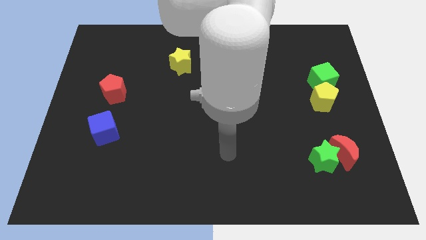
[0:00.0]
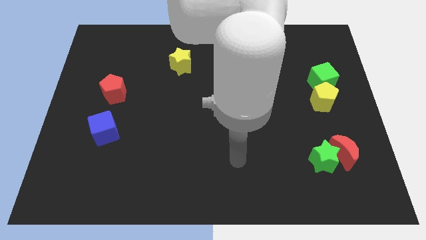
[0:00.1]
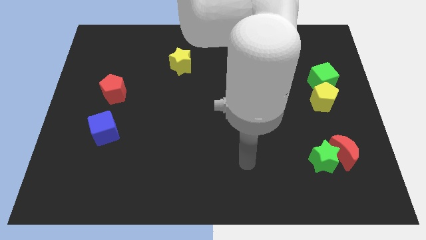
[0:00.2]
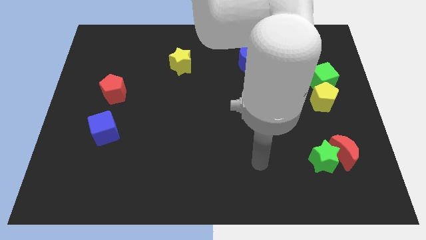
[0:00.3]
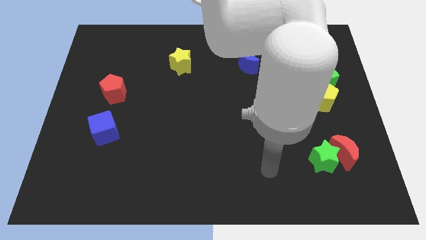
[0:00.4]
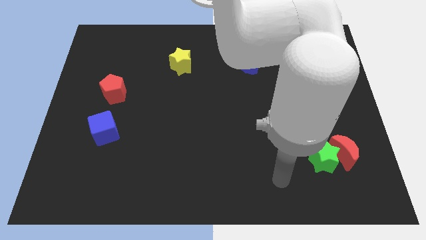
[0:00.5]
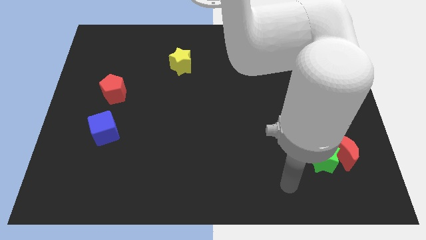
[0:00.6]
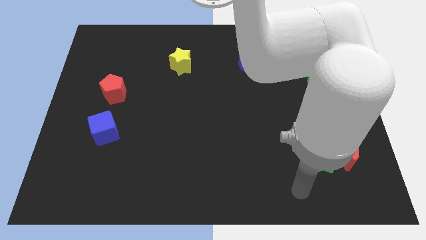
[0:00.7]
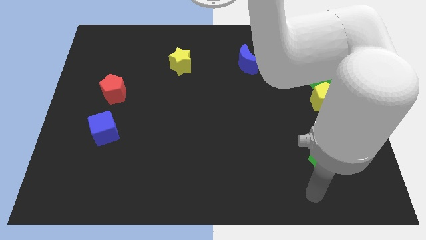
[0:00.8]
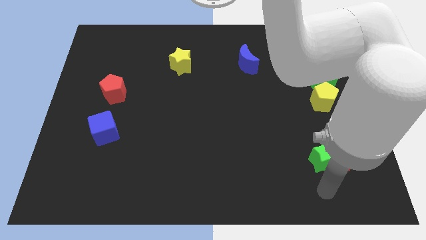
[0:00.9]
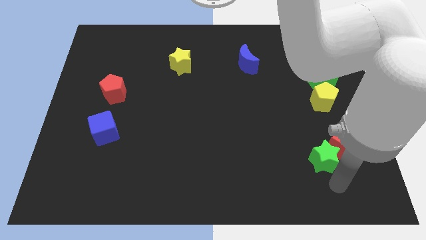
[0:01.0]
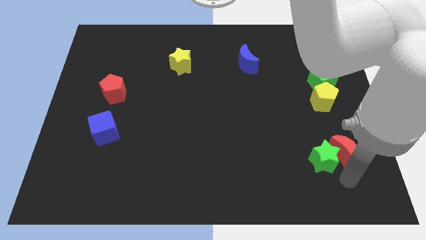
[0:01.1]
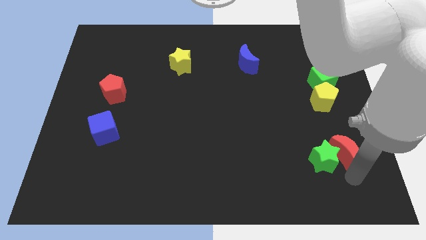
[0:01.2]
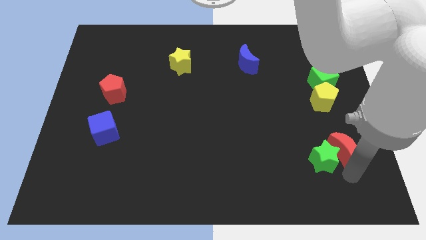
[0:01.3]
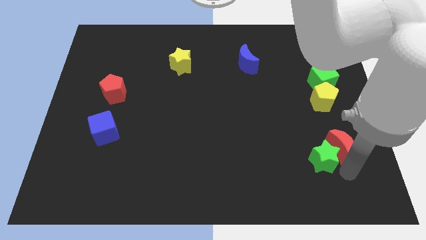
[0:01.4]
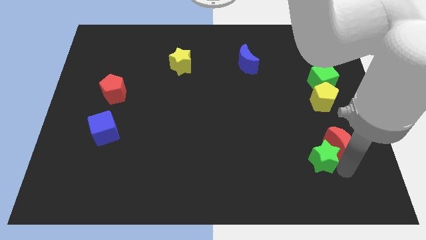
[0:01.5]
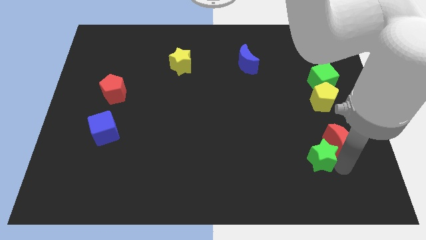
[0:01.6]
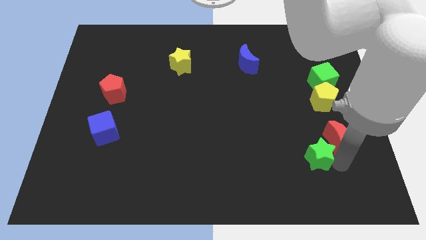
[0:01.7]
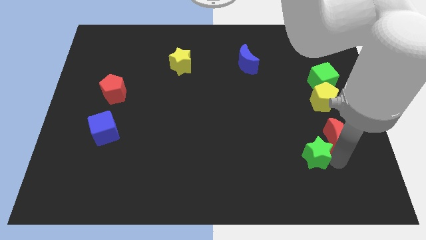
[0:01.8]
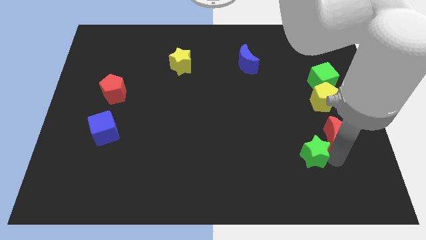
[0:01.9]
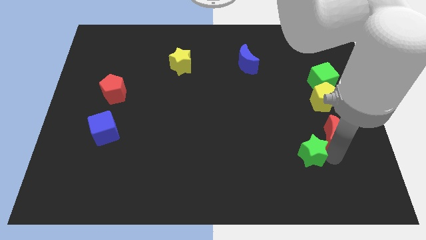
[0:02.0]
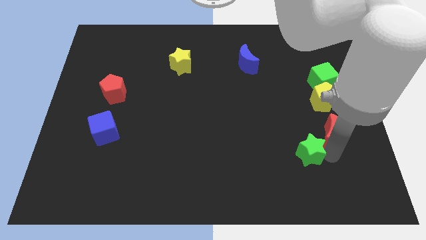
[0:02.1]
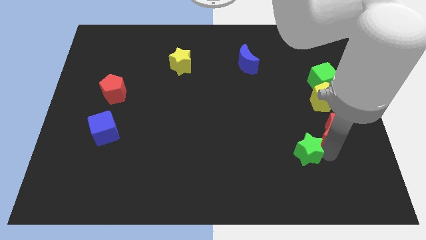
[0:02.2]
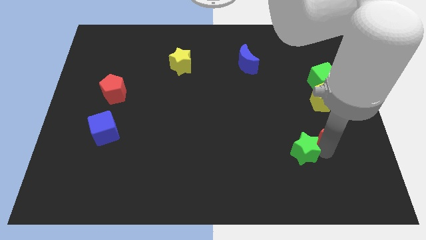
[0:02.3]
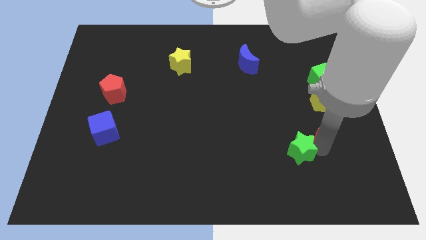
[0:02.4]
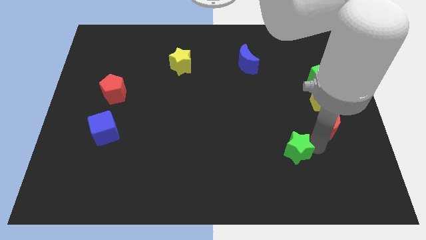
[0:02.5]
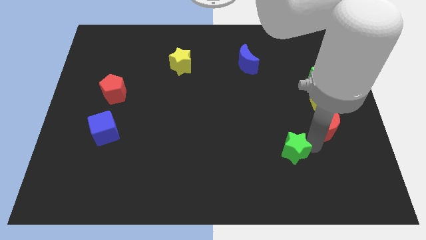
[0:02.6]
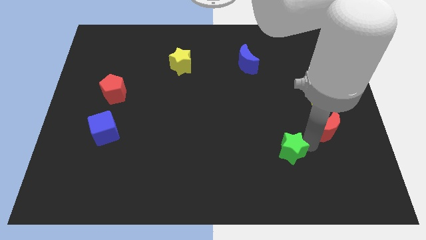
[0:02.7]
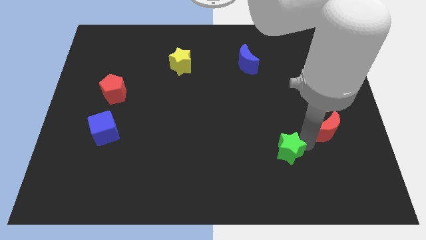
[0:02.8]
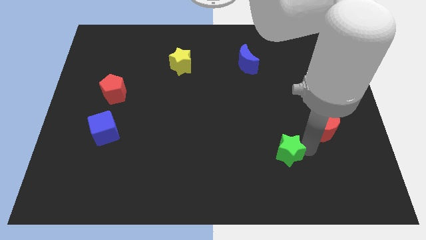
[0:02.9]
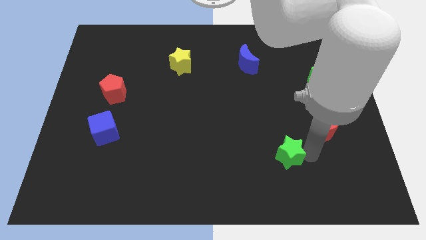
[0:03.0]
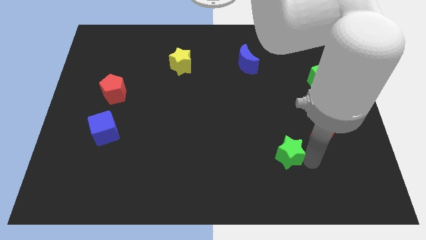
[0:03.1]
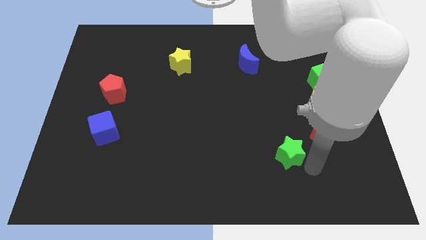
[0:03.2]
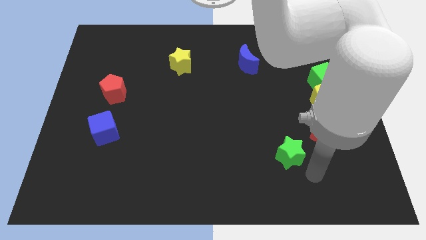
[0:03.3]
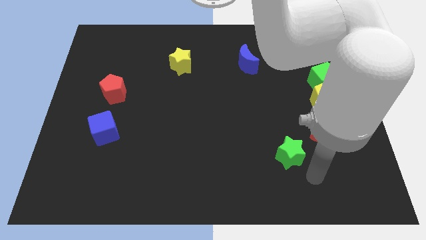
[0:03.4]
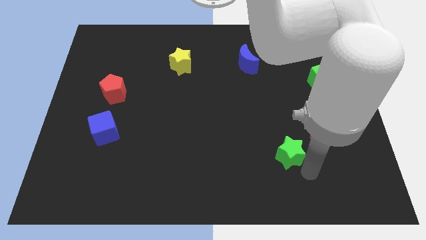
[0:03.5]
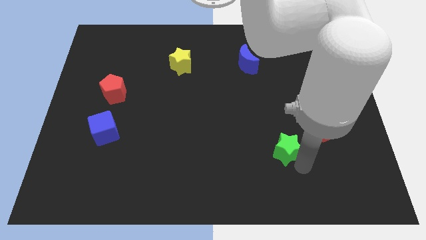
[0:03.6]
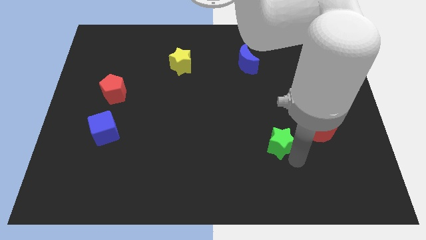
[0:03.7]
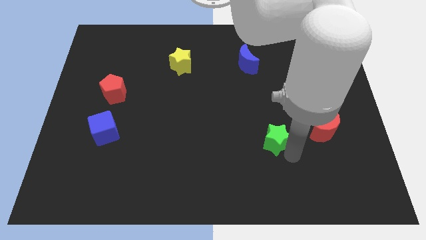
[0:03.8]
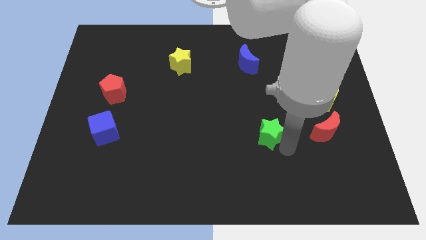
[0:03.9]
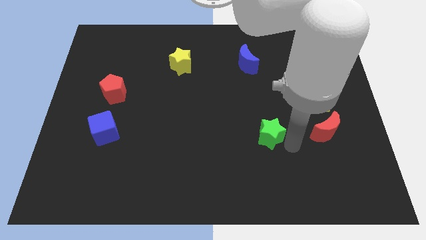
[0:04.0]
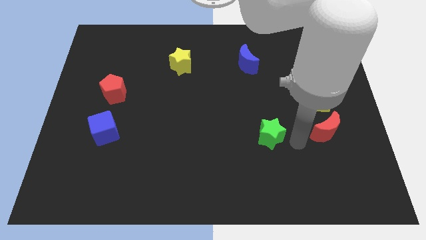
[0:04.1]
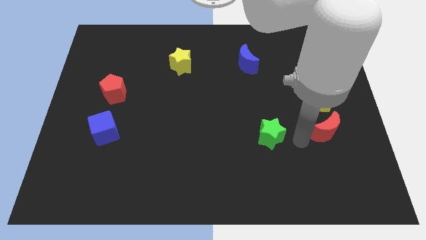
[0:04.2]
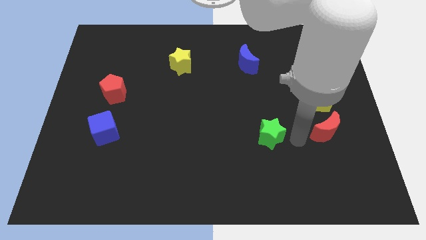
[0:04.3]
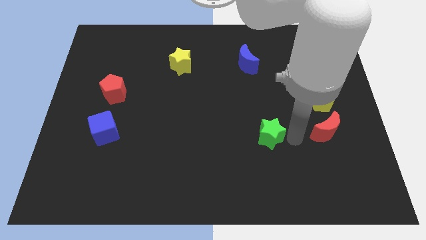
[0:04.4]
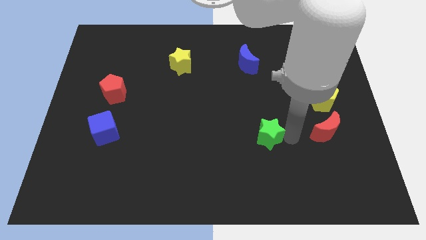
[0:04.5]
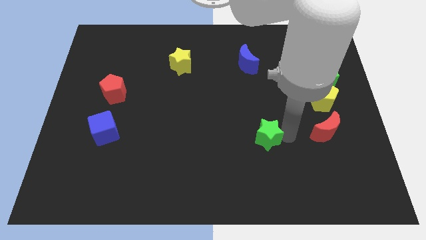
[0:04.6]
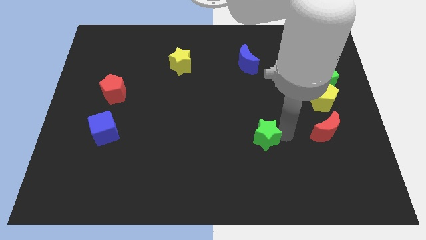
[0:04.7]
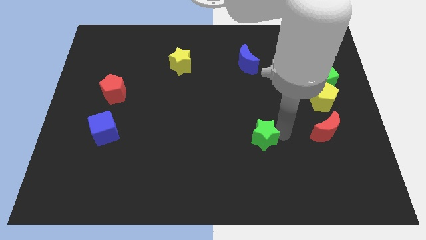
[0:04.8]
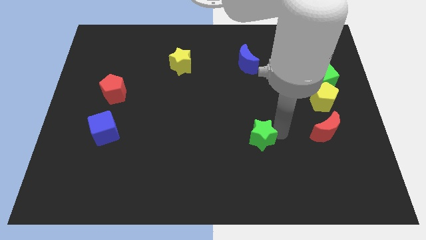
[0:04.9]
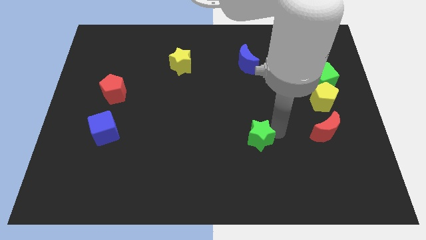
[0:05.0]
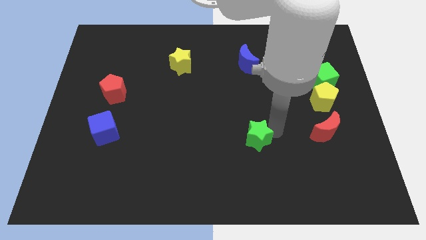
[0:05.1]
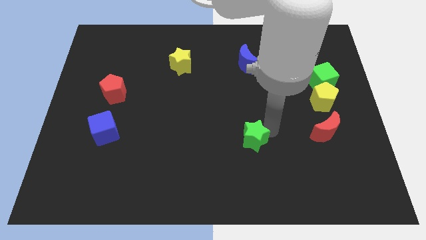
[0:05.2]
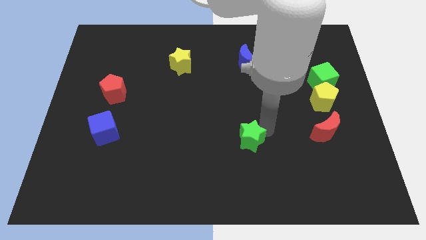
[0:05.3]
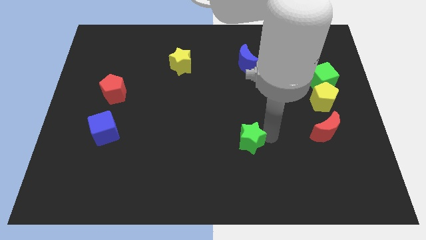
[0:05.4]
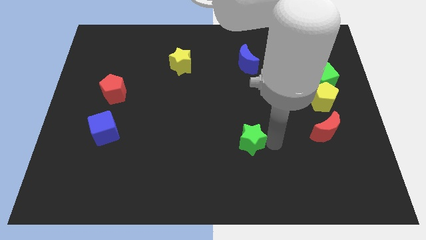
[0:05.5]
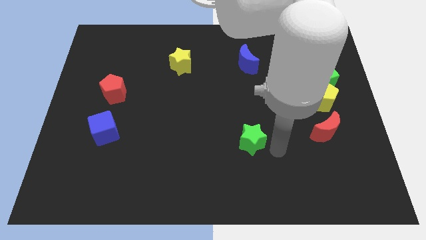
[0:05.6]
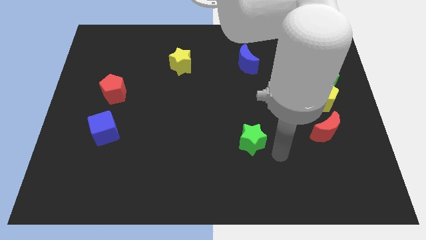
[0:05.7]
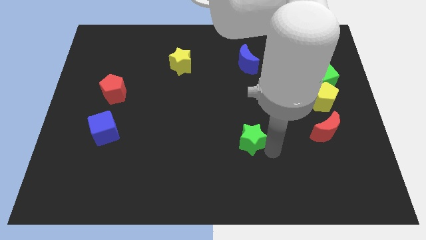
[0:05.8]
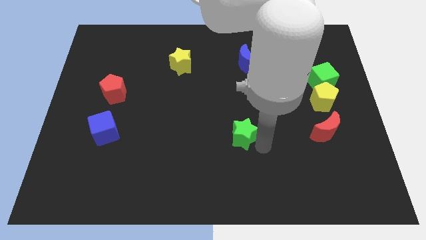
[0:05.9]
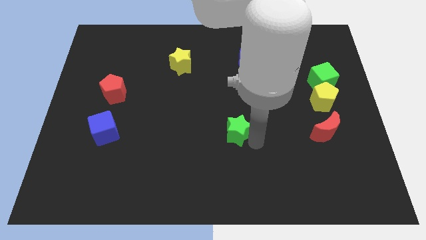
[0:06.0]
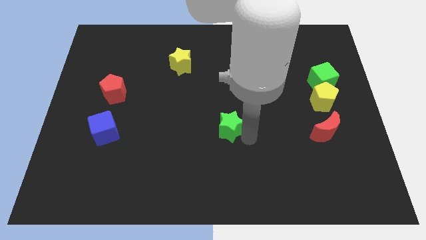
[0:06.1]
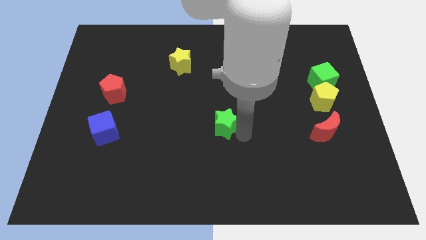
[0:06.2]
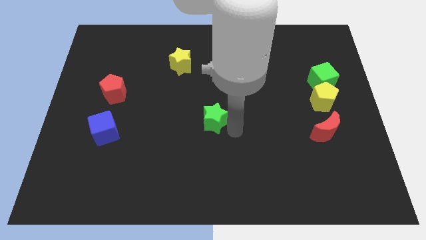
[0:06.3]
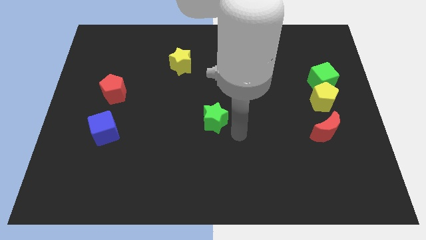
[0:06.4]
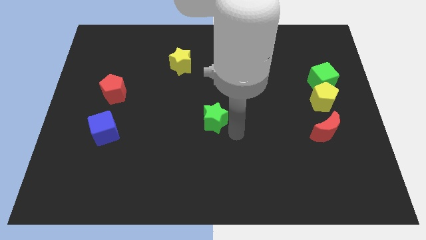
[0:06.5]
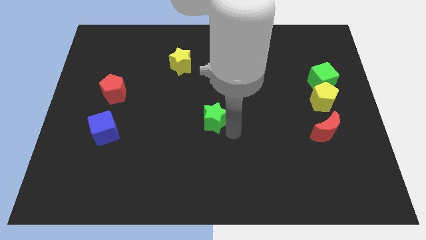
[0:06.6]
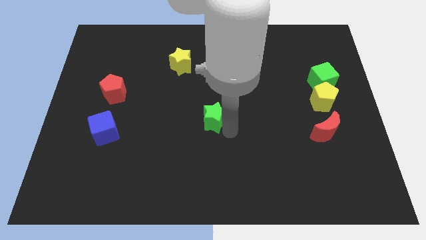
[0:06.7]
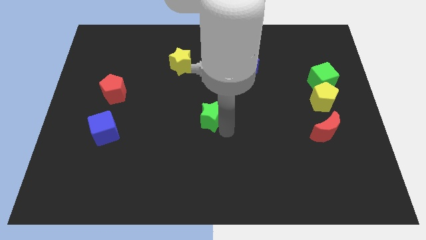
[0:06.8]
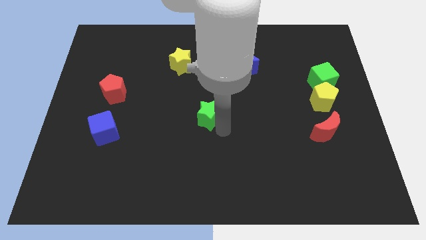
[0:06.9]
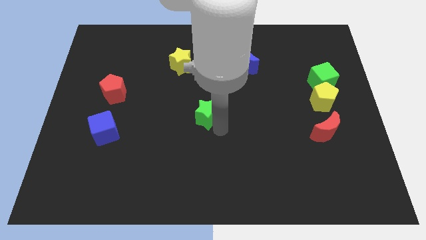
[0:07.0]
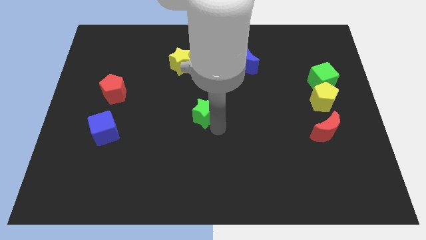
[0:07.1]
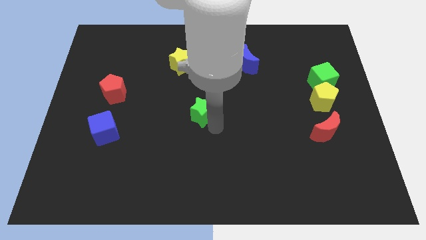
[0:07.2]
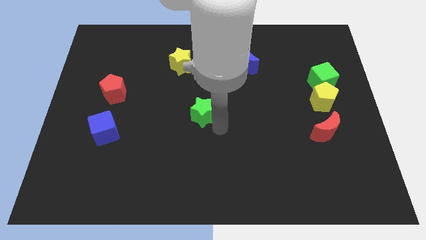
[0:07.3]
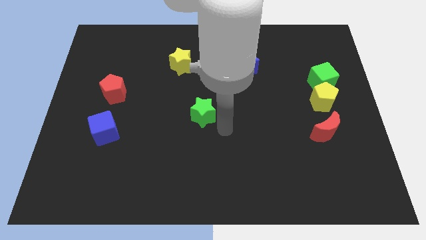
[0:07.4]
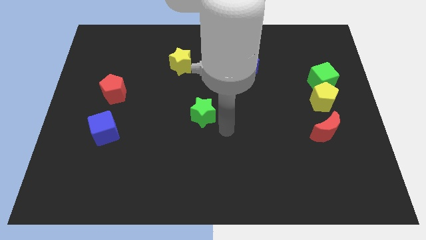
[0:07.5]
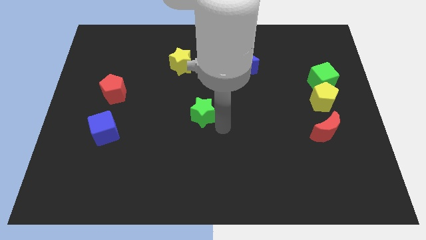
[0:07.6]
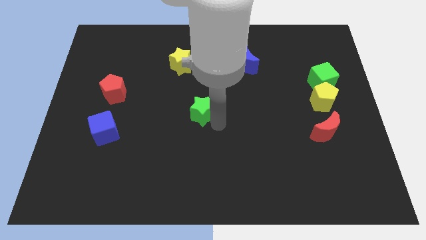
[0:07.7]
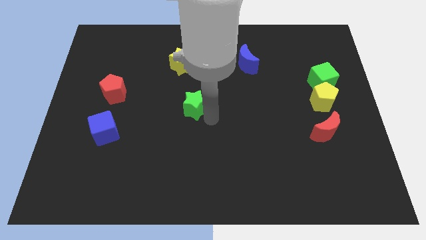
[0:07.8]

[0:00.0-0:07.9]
slide the green star to the bottom side of the yellow star
